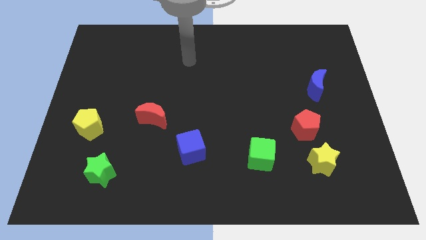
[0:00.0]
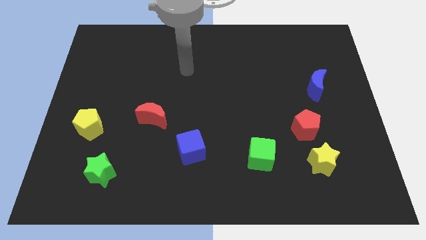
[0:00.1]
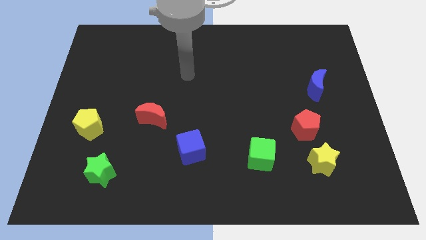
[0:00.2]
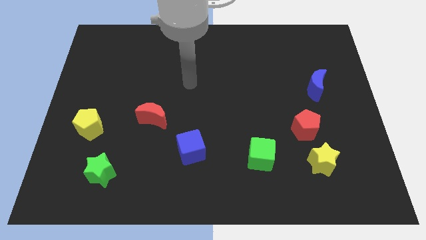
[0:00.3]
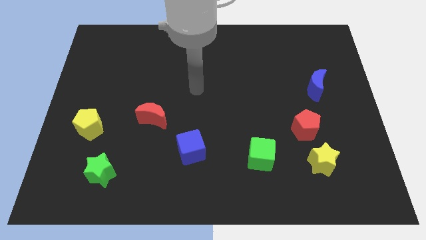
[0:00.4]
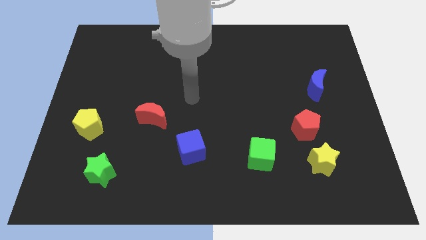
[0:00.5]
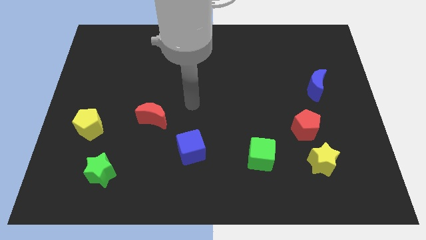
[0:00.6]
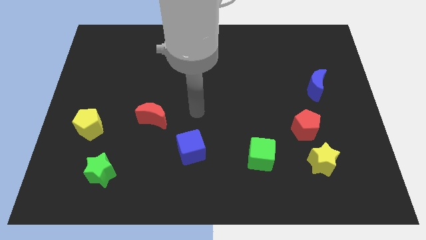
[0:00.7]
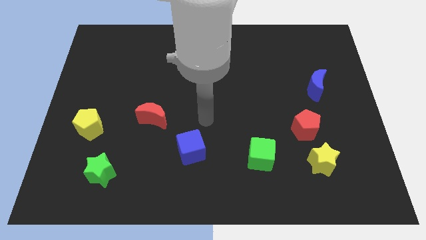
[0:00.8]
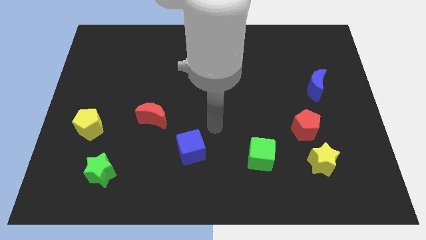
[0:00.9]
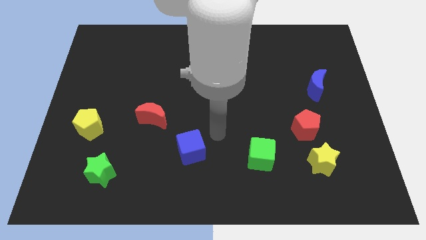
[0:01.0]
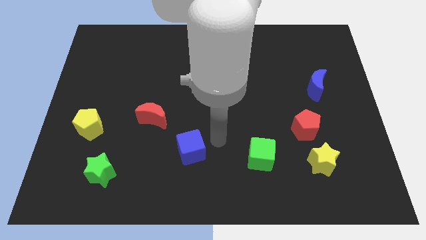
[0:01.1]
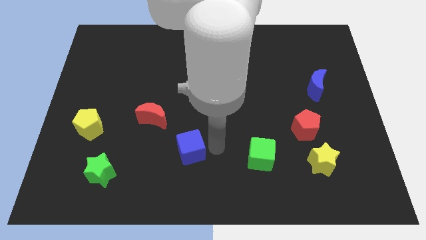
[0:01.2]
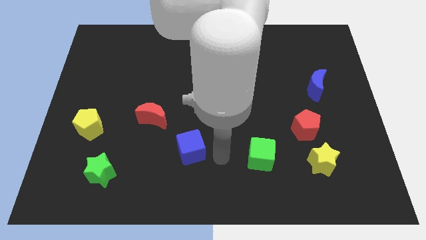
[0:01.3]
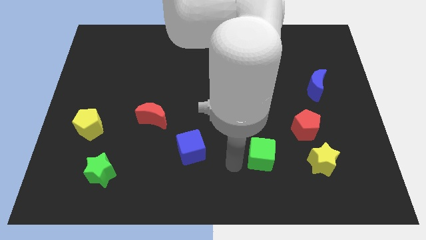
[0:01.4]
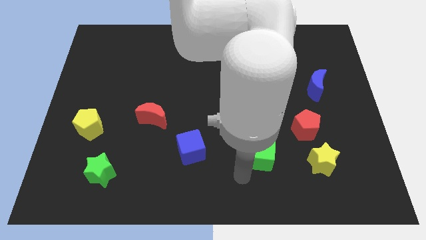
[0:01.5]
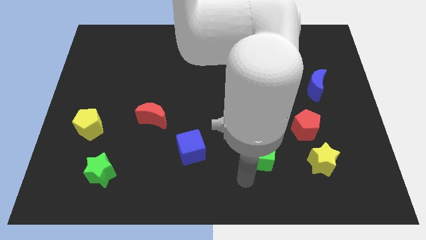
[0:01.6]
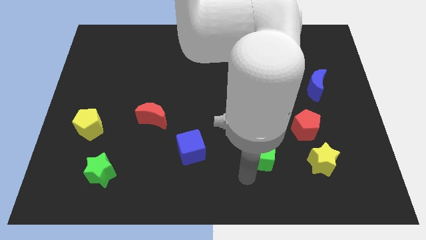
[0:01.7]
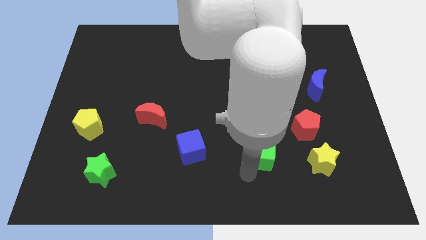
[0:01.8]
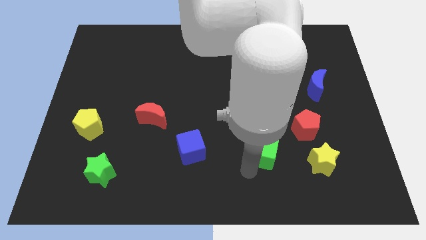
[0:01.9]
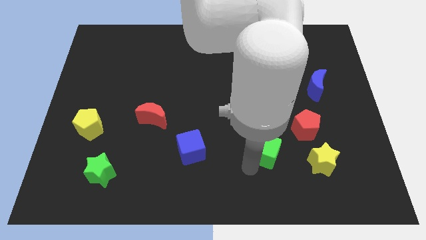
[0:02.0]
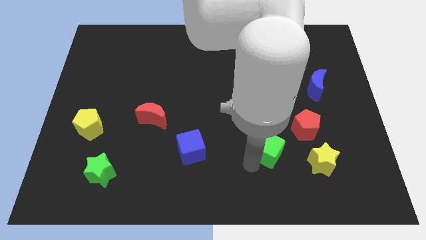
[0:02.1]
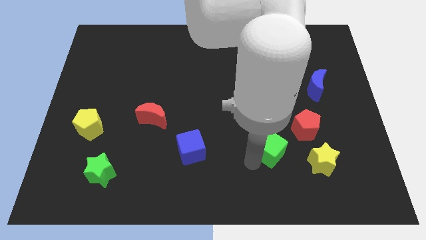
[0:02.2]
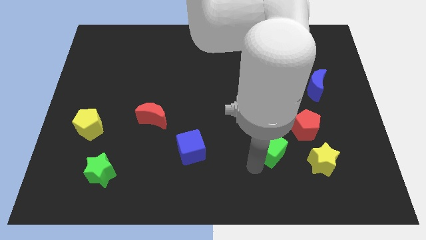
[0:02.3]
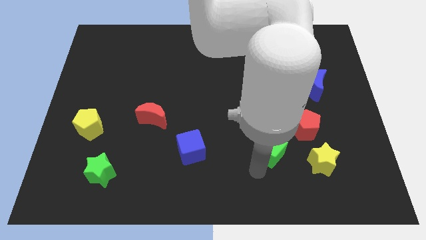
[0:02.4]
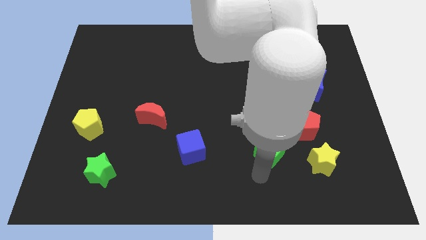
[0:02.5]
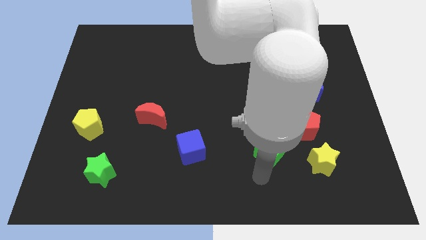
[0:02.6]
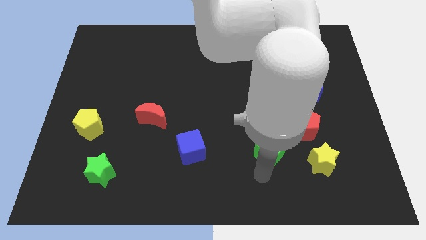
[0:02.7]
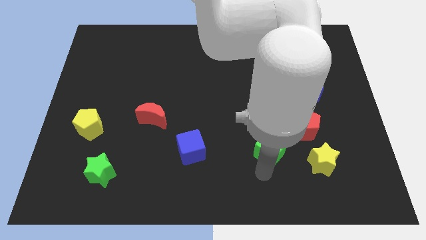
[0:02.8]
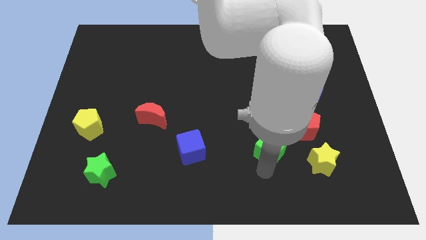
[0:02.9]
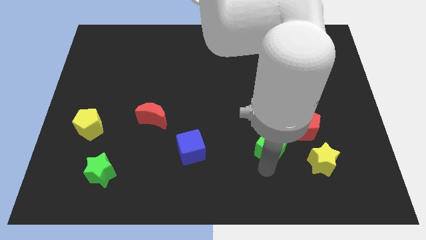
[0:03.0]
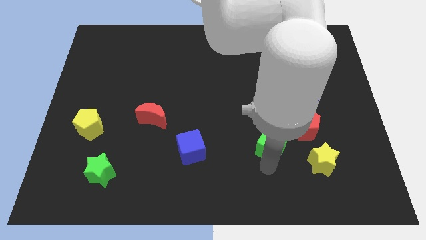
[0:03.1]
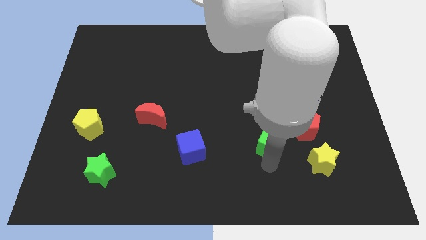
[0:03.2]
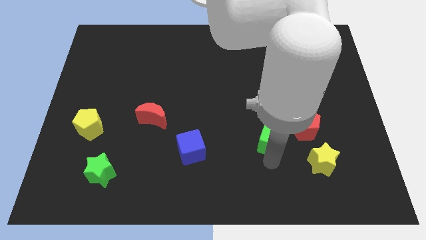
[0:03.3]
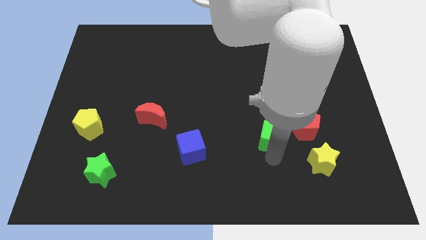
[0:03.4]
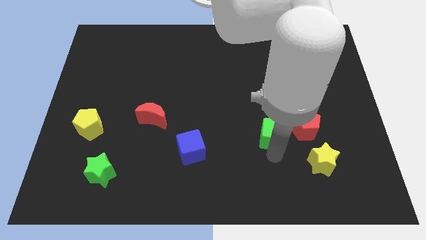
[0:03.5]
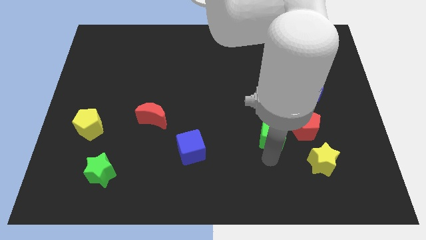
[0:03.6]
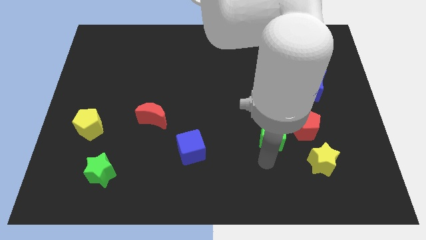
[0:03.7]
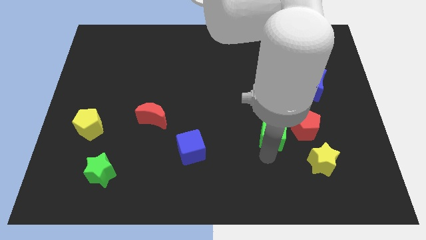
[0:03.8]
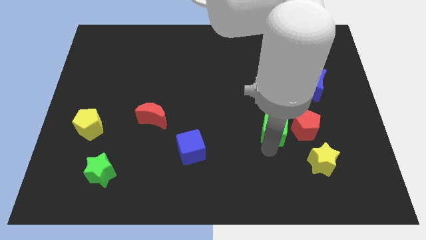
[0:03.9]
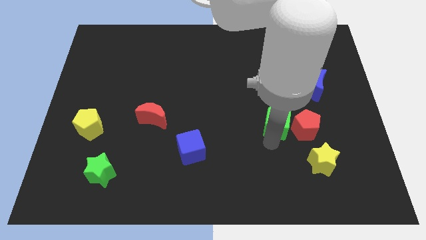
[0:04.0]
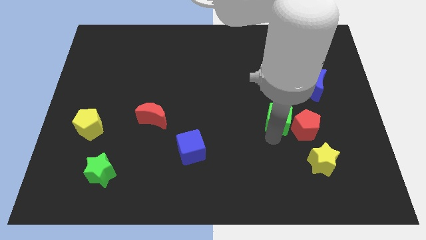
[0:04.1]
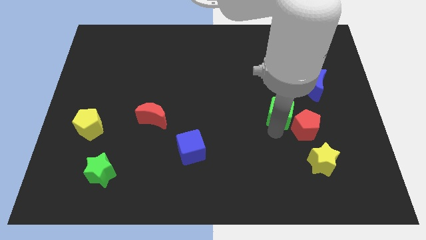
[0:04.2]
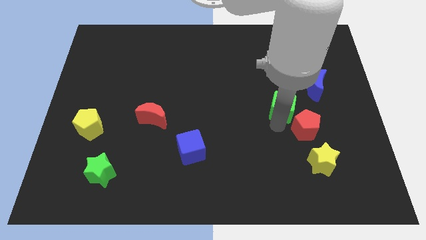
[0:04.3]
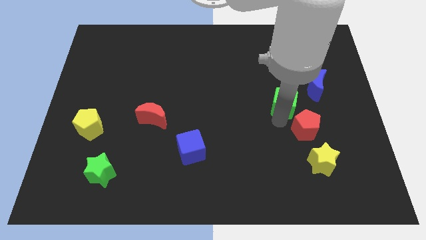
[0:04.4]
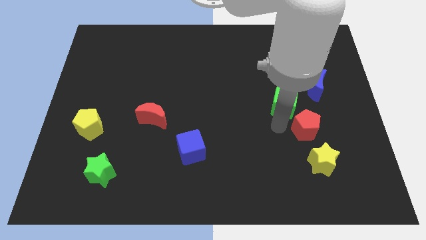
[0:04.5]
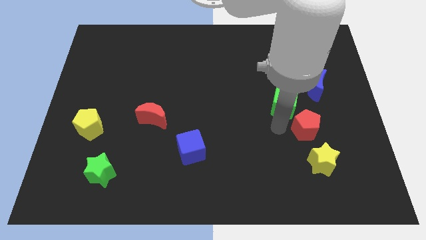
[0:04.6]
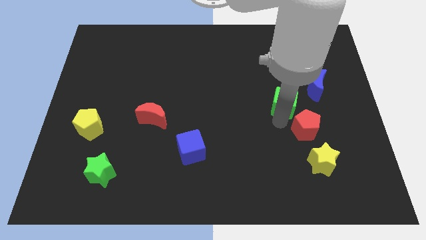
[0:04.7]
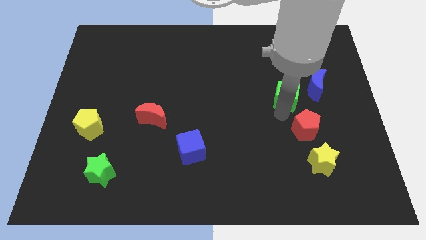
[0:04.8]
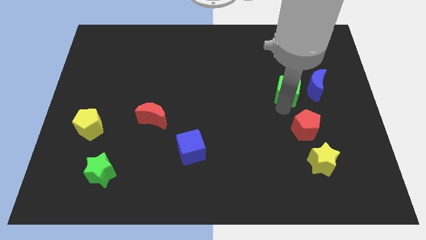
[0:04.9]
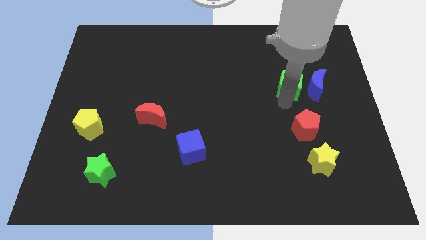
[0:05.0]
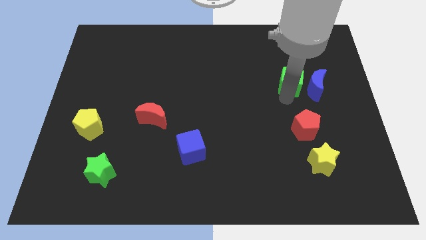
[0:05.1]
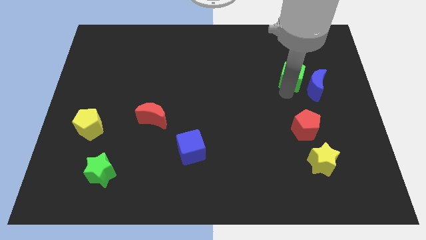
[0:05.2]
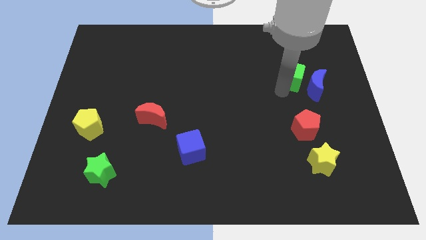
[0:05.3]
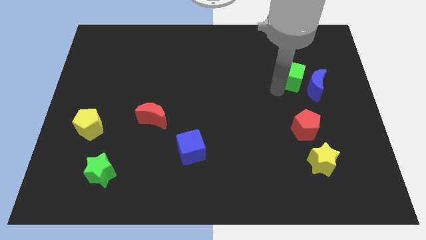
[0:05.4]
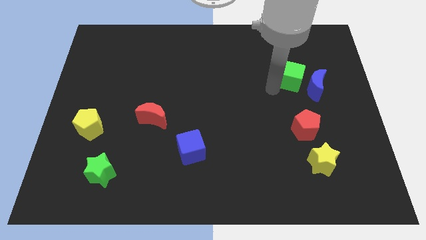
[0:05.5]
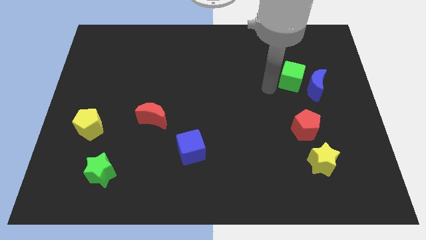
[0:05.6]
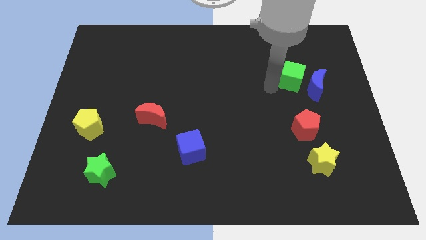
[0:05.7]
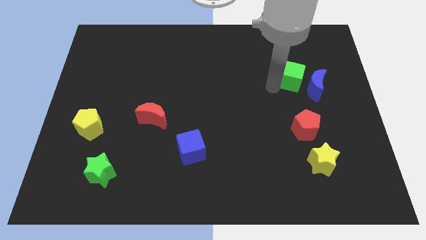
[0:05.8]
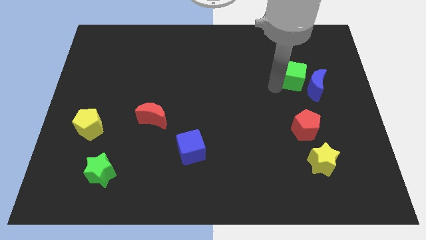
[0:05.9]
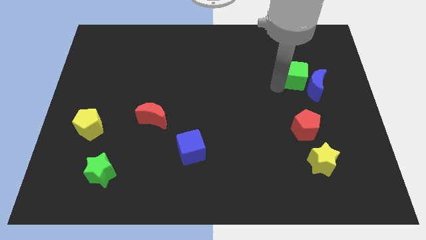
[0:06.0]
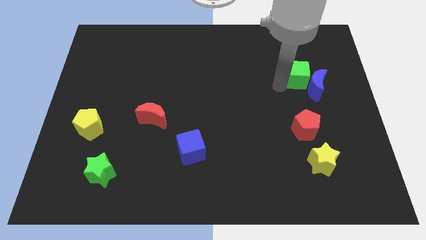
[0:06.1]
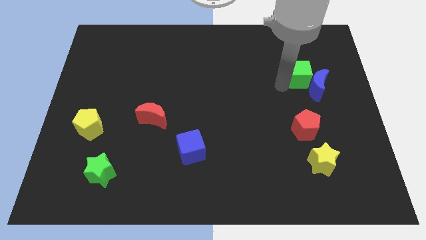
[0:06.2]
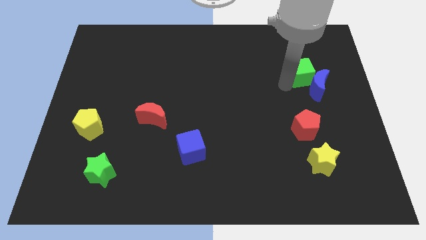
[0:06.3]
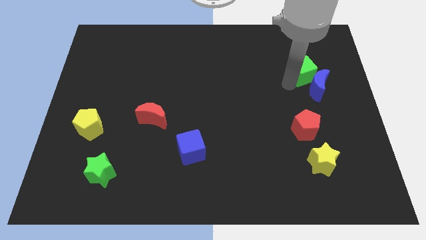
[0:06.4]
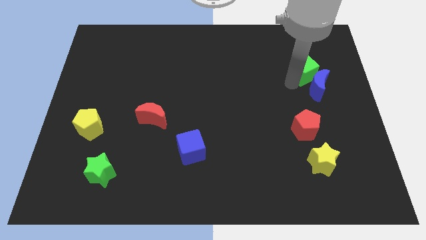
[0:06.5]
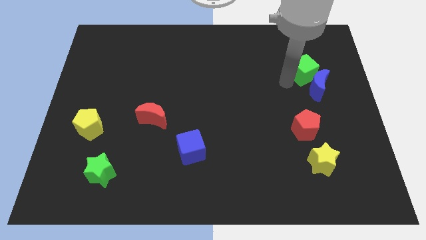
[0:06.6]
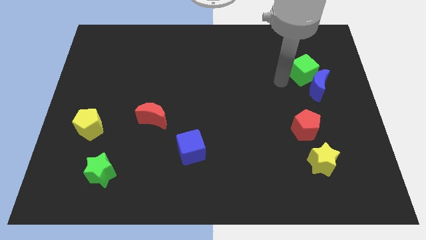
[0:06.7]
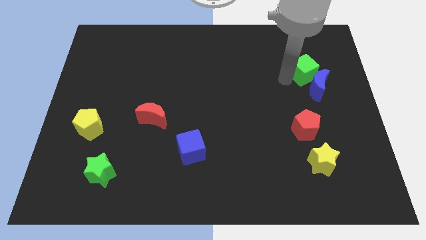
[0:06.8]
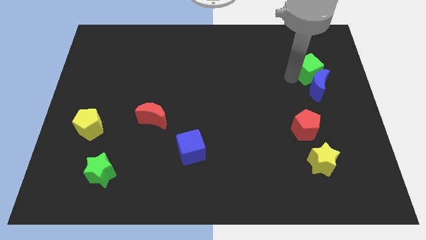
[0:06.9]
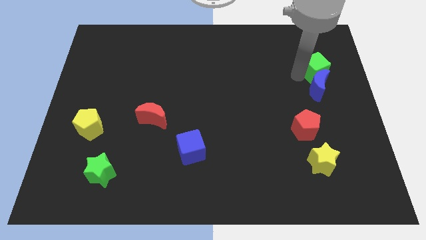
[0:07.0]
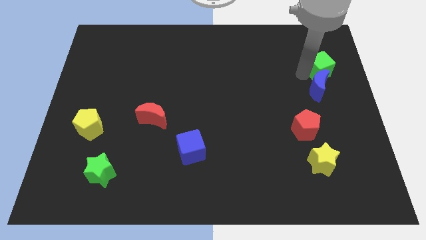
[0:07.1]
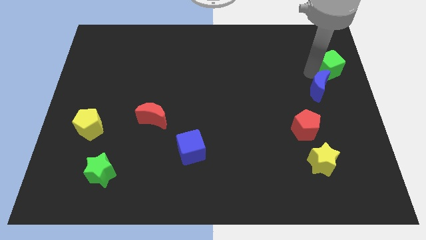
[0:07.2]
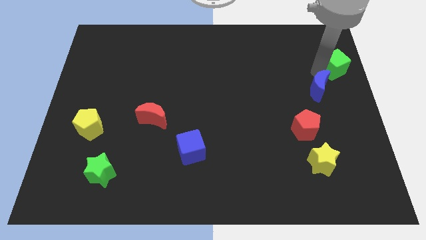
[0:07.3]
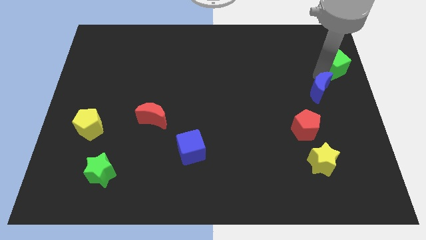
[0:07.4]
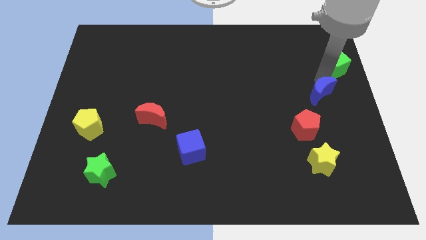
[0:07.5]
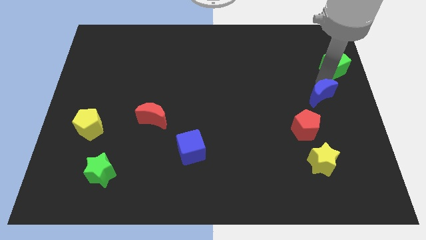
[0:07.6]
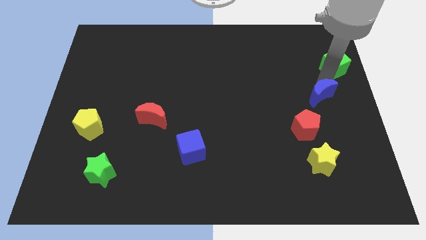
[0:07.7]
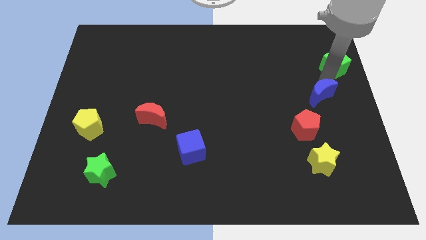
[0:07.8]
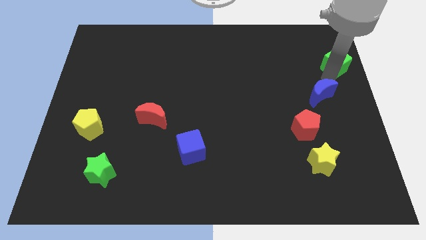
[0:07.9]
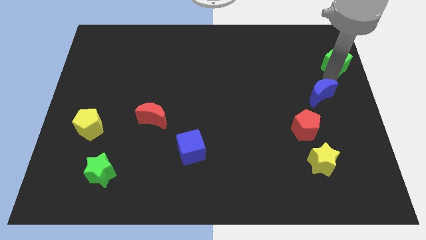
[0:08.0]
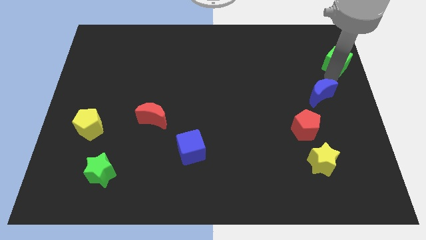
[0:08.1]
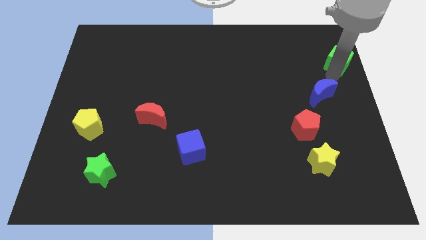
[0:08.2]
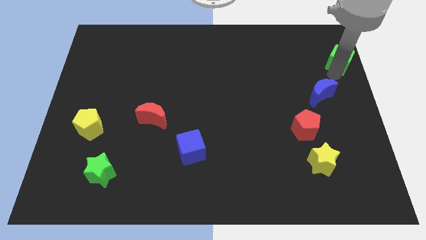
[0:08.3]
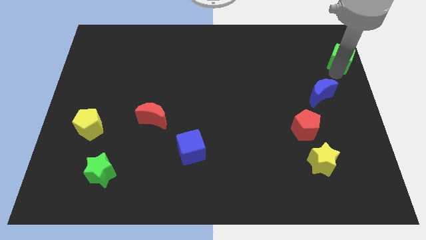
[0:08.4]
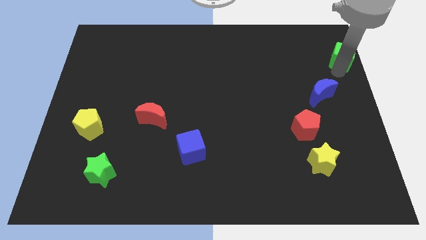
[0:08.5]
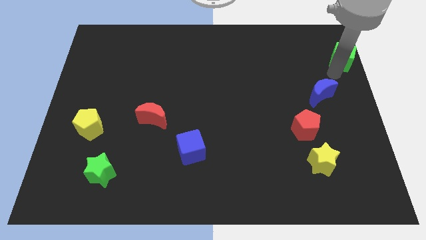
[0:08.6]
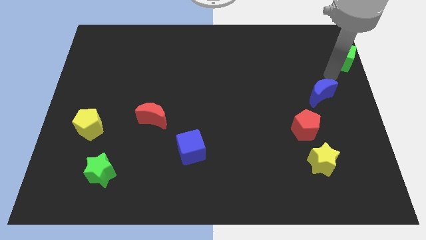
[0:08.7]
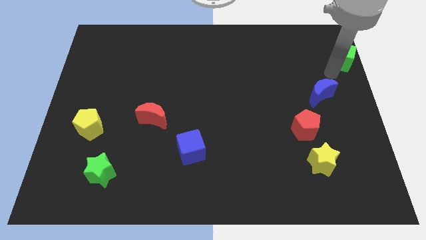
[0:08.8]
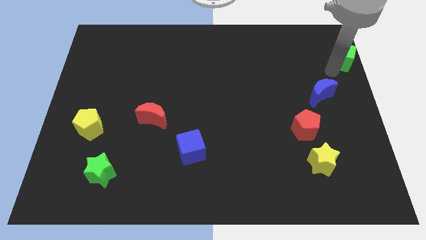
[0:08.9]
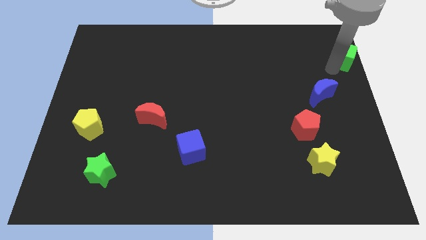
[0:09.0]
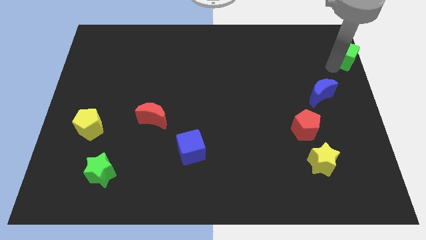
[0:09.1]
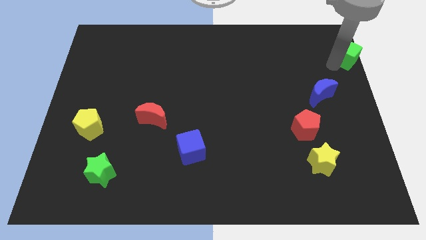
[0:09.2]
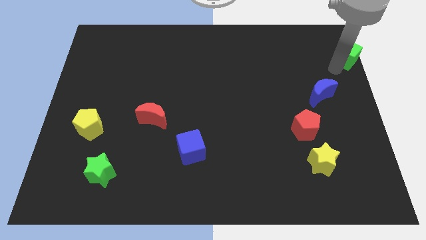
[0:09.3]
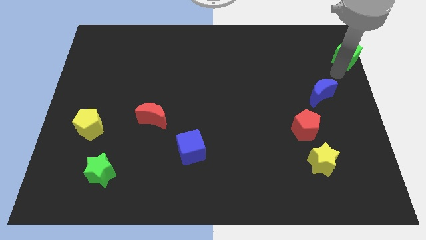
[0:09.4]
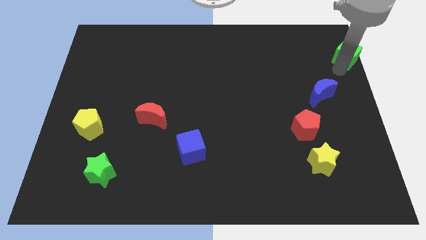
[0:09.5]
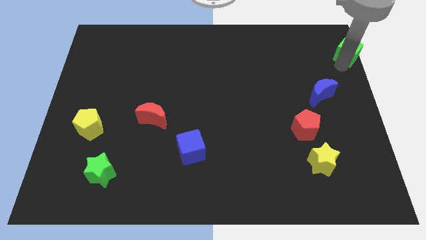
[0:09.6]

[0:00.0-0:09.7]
move the green cube to the top right
